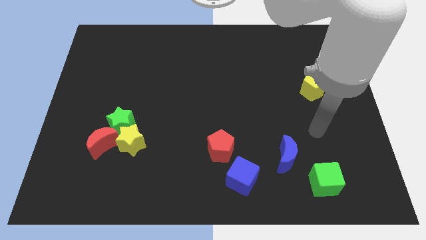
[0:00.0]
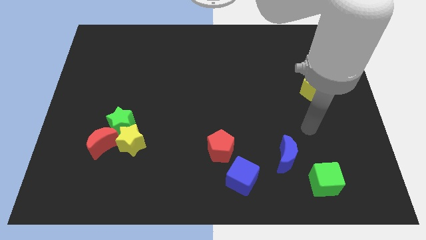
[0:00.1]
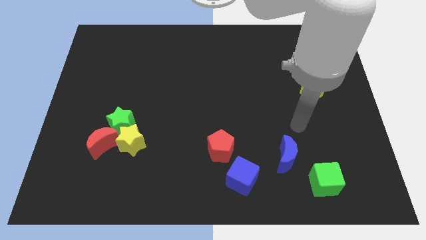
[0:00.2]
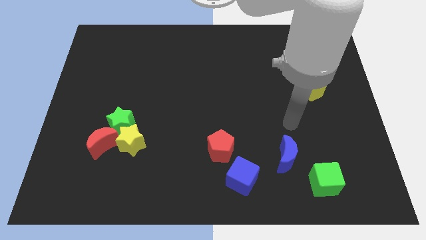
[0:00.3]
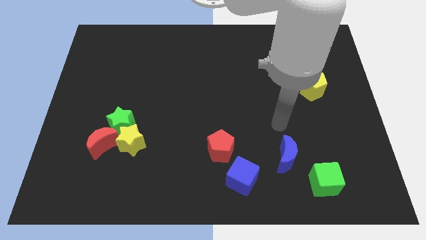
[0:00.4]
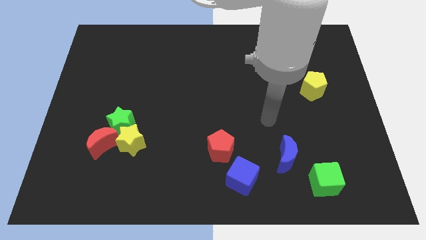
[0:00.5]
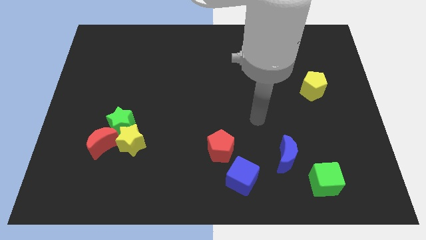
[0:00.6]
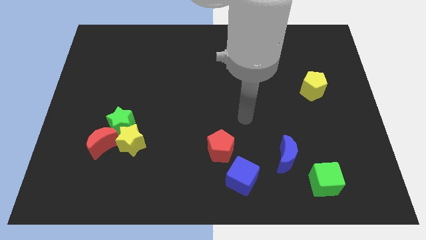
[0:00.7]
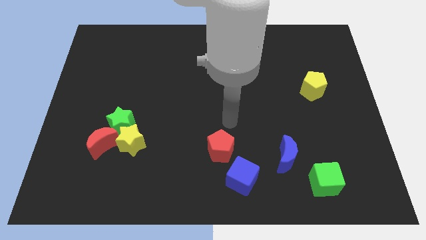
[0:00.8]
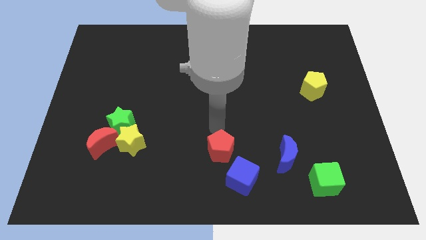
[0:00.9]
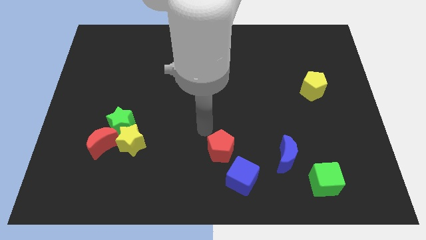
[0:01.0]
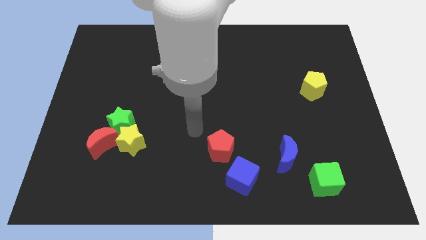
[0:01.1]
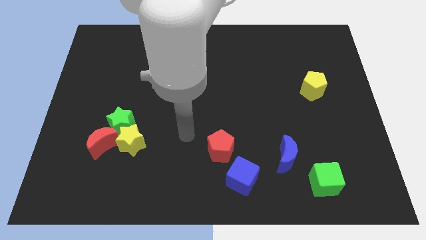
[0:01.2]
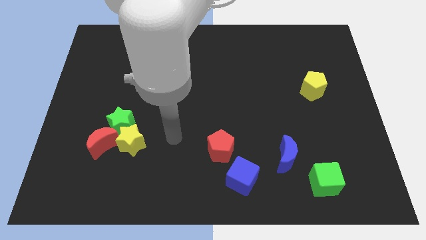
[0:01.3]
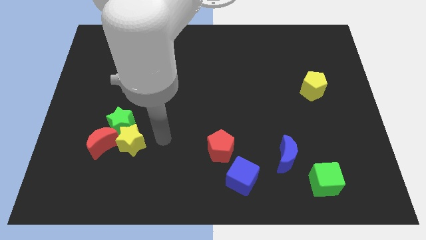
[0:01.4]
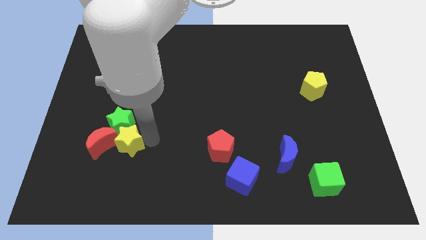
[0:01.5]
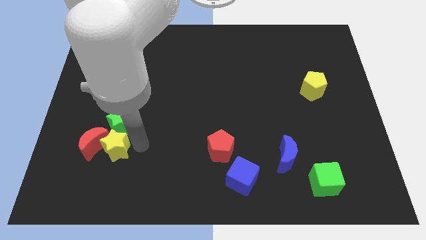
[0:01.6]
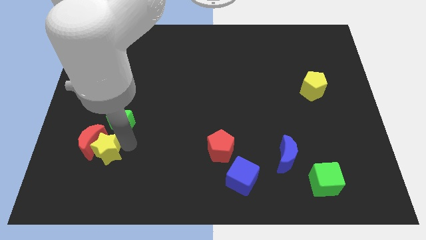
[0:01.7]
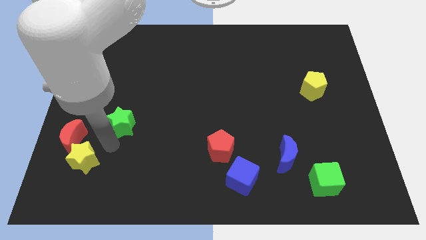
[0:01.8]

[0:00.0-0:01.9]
separate the green star from the yellow star and red moon

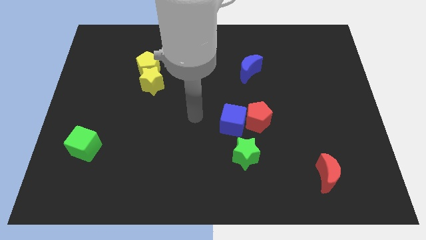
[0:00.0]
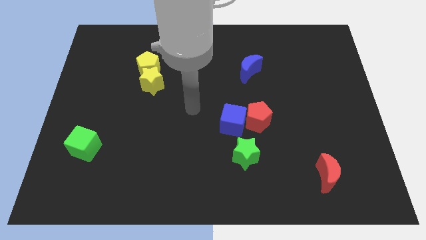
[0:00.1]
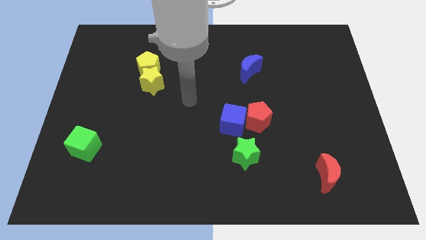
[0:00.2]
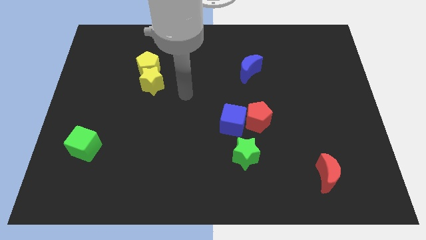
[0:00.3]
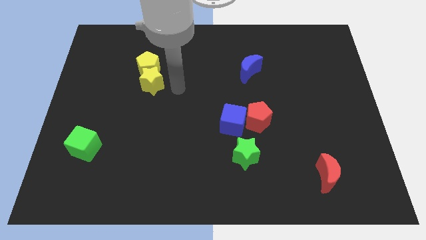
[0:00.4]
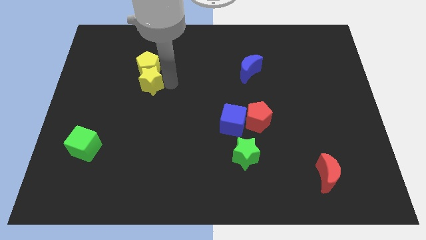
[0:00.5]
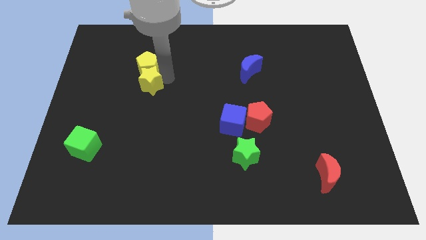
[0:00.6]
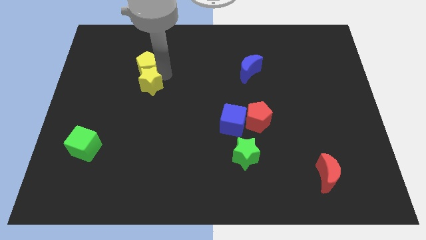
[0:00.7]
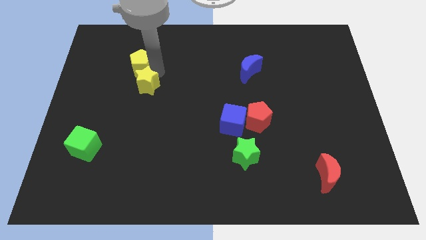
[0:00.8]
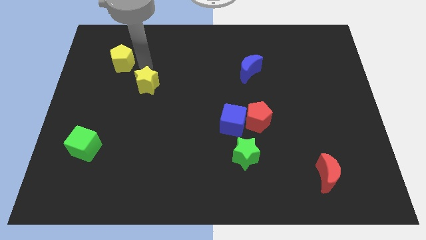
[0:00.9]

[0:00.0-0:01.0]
separate the yellow star from the yellow pentagon

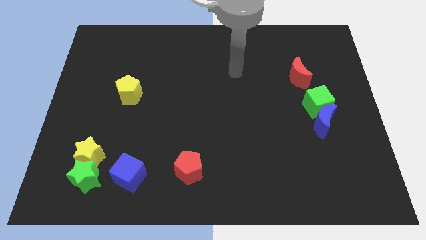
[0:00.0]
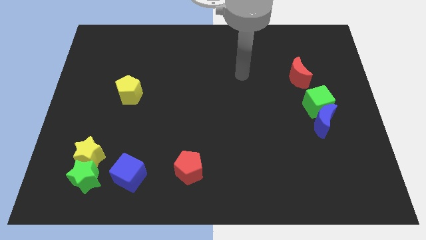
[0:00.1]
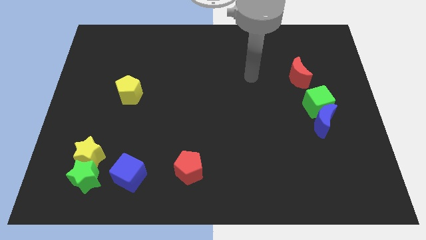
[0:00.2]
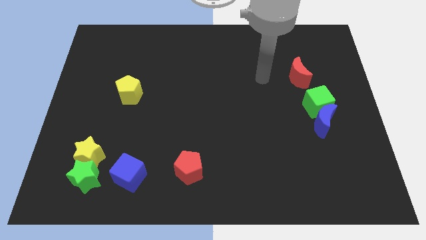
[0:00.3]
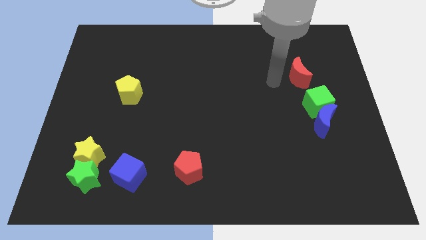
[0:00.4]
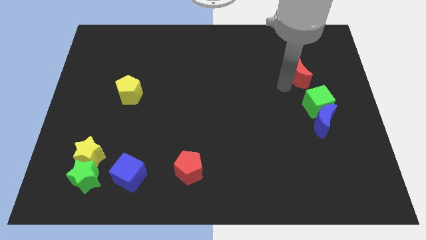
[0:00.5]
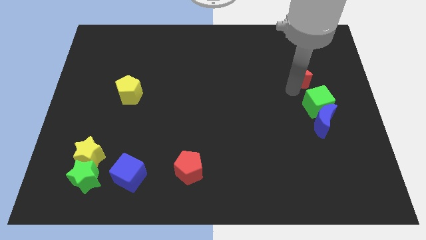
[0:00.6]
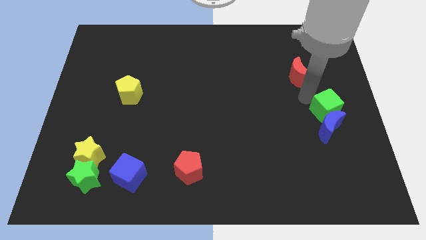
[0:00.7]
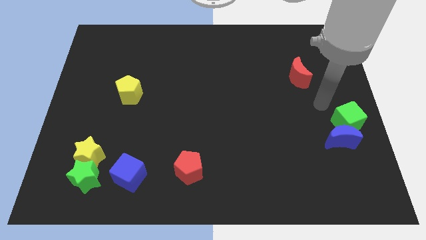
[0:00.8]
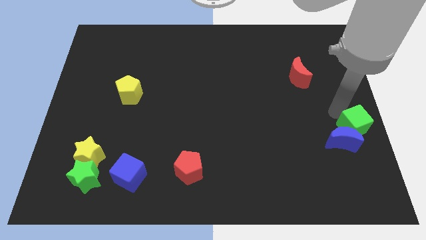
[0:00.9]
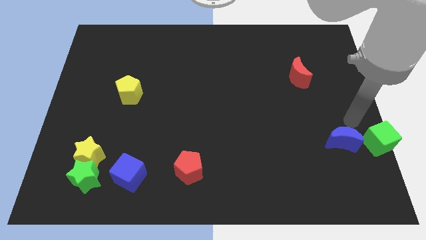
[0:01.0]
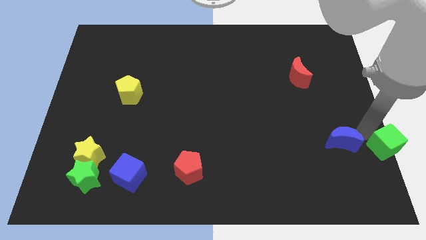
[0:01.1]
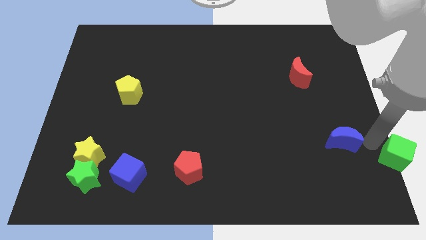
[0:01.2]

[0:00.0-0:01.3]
move the blue moon away from the green cube

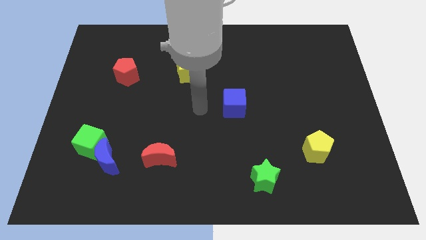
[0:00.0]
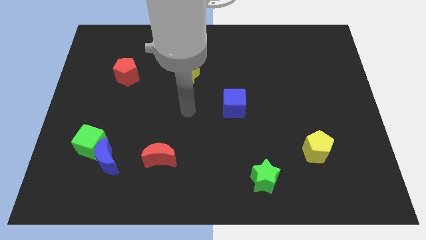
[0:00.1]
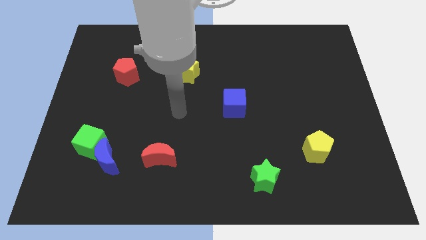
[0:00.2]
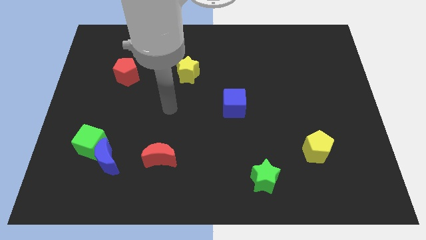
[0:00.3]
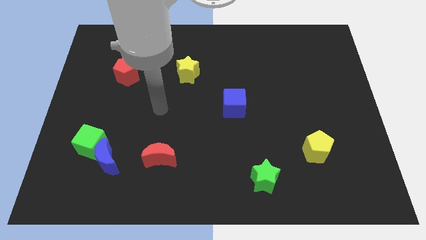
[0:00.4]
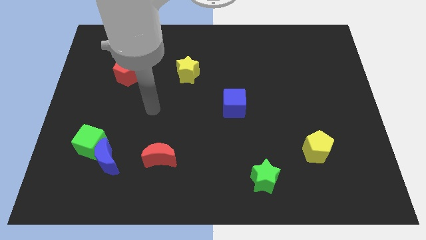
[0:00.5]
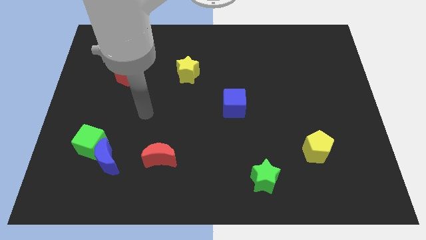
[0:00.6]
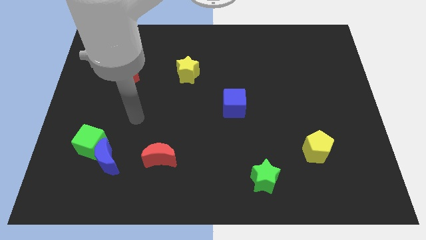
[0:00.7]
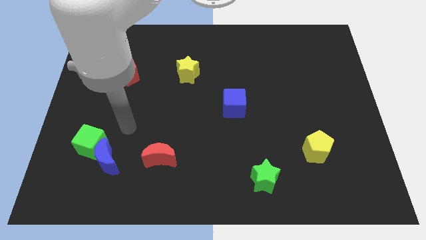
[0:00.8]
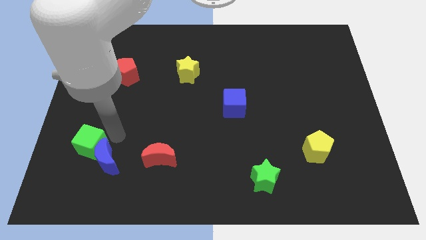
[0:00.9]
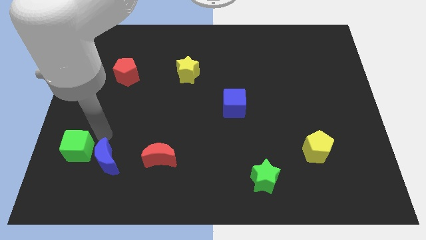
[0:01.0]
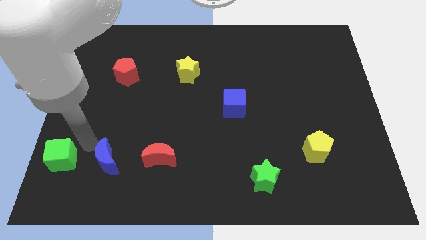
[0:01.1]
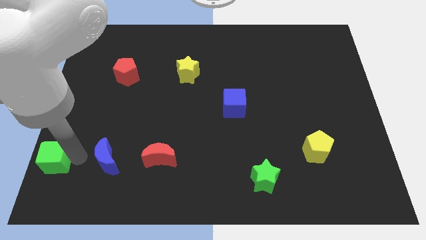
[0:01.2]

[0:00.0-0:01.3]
separate the blue moon from the green cube

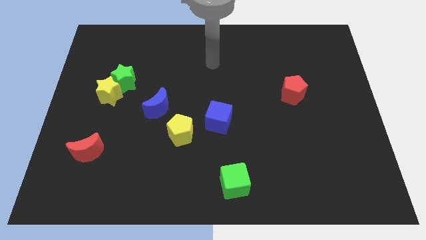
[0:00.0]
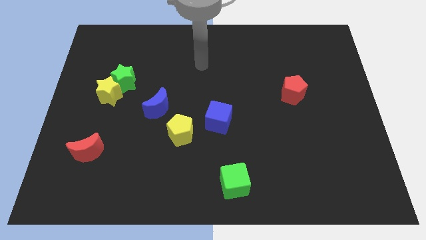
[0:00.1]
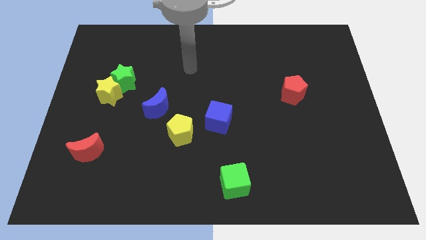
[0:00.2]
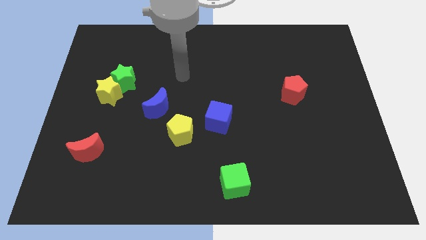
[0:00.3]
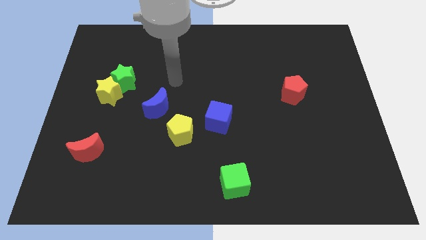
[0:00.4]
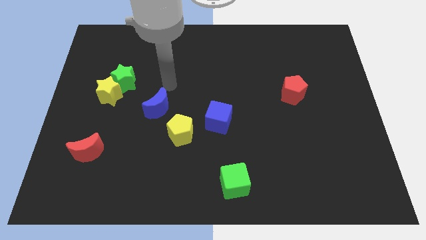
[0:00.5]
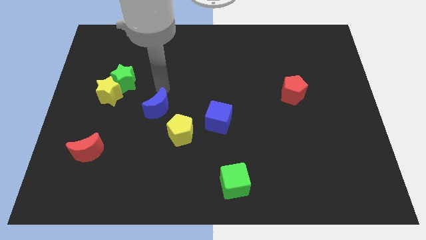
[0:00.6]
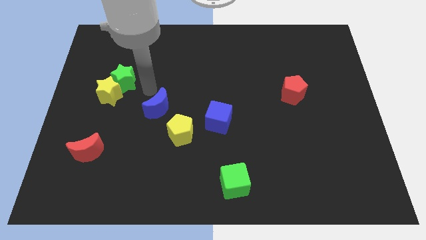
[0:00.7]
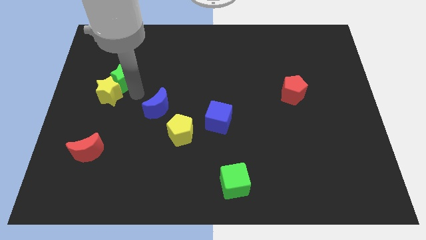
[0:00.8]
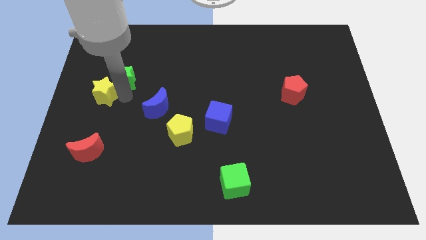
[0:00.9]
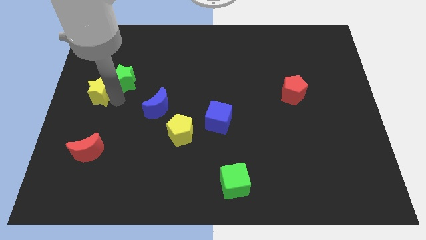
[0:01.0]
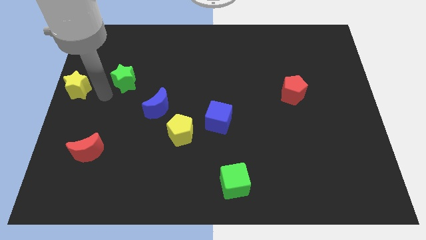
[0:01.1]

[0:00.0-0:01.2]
move the green star away from the yellow star

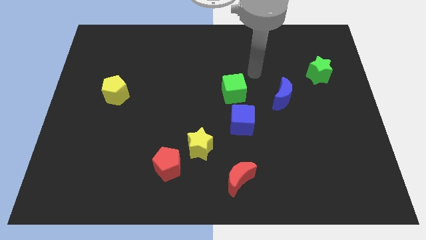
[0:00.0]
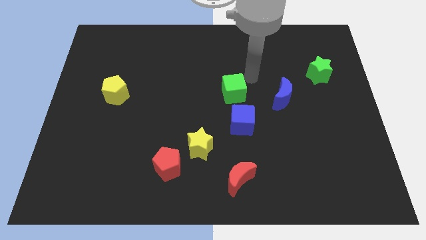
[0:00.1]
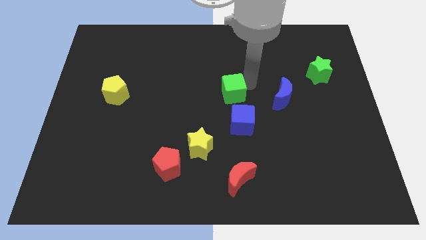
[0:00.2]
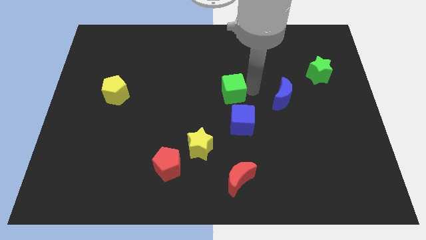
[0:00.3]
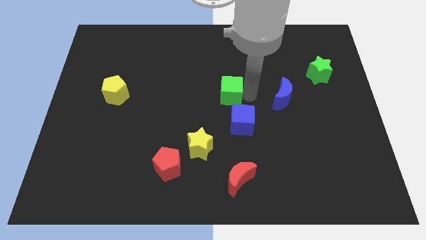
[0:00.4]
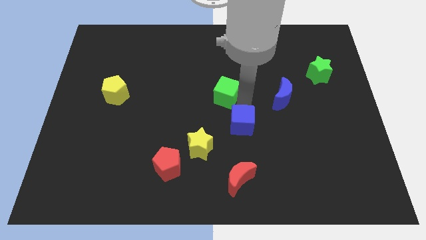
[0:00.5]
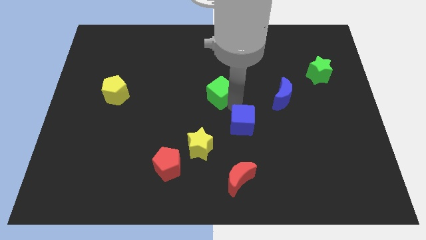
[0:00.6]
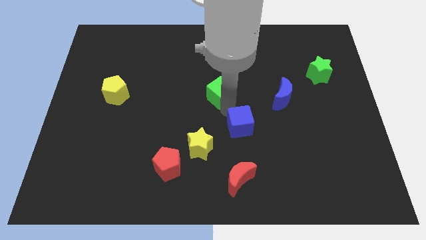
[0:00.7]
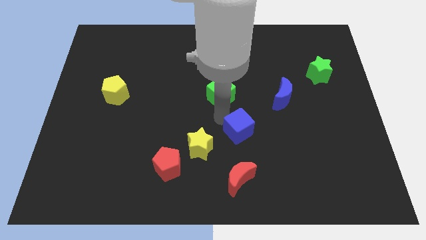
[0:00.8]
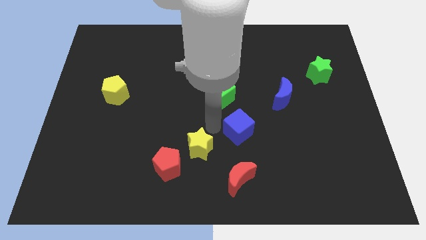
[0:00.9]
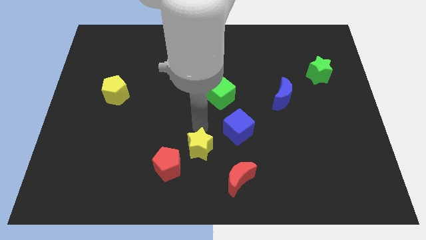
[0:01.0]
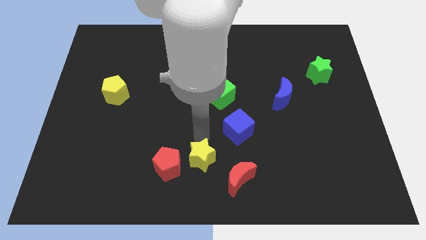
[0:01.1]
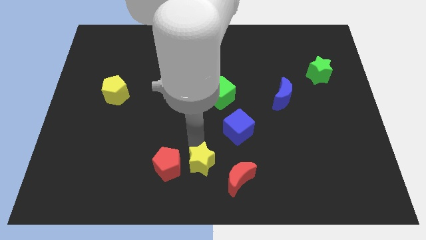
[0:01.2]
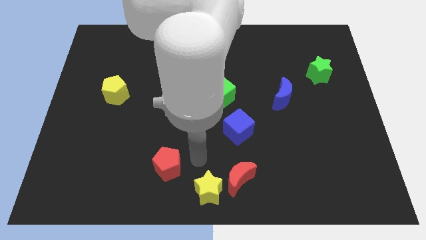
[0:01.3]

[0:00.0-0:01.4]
separate the red pentagon from the yellow star

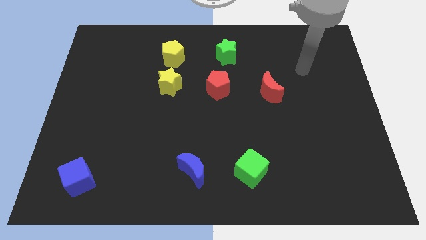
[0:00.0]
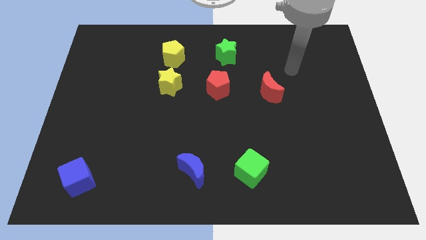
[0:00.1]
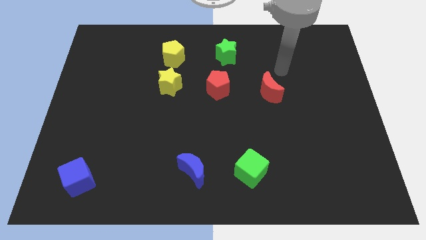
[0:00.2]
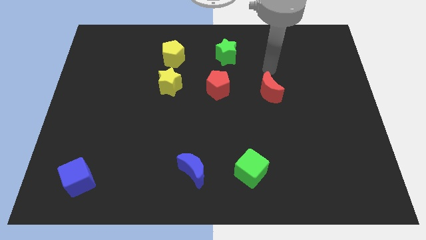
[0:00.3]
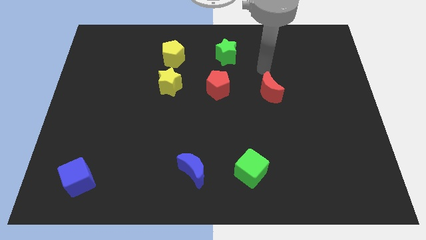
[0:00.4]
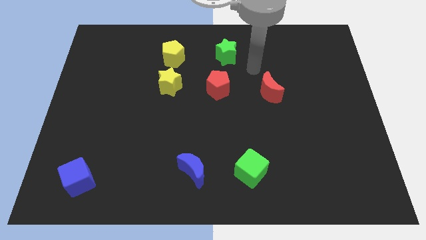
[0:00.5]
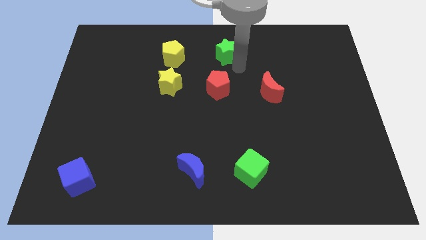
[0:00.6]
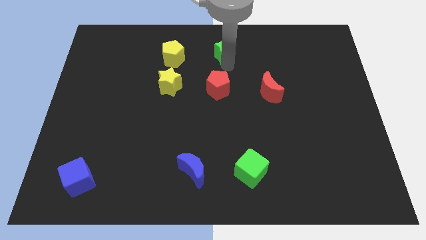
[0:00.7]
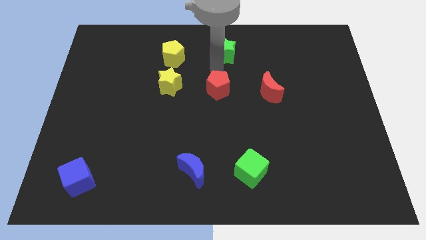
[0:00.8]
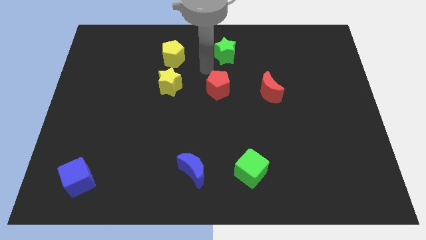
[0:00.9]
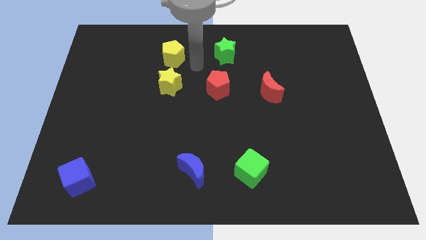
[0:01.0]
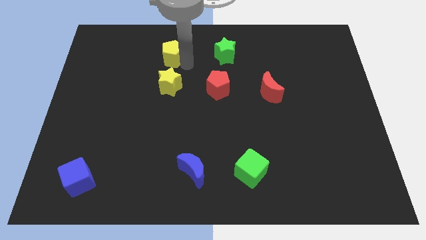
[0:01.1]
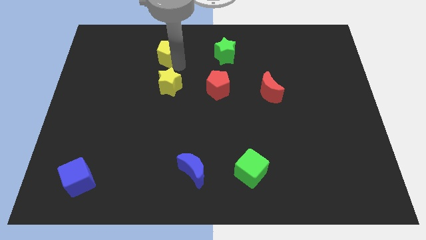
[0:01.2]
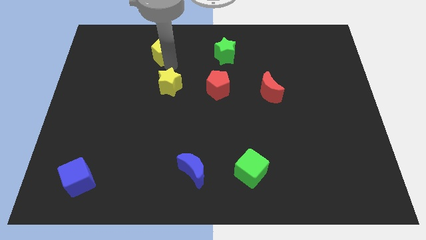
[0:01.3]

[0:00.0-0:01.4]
pull the yellow star apart from the yellow pentagon
